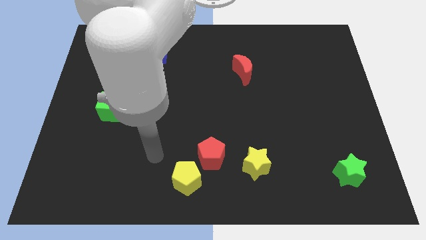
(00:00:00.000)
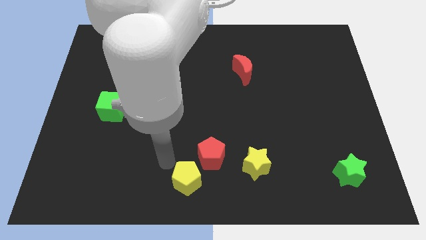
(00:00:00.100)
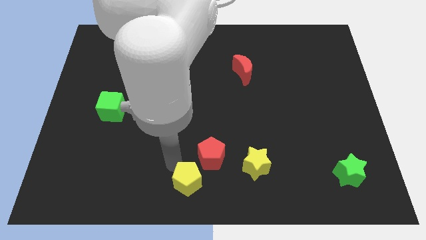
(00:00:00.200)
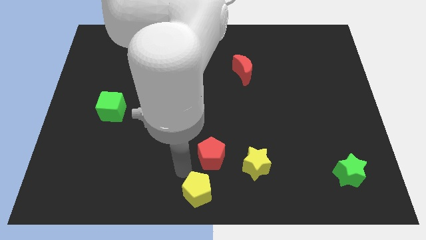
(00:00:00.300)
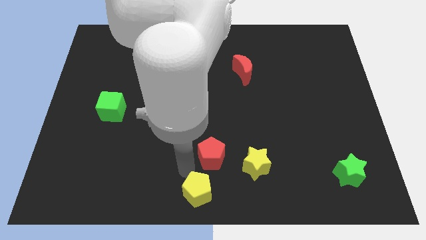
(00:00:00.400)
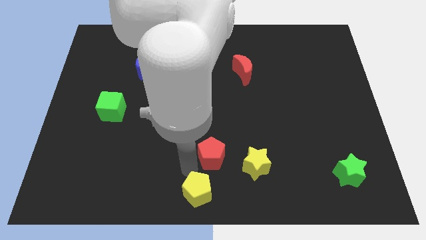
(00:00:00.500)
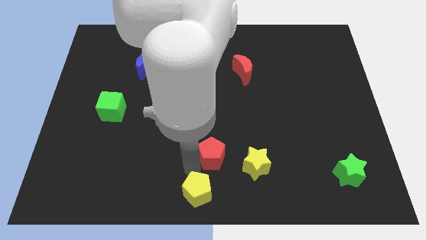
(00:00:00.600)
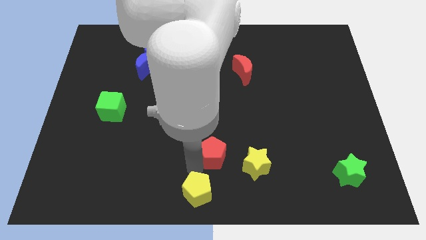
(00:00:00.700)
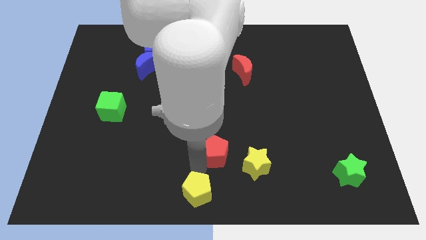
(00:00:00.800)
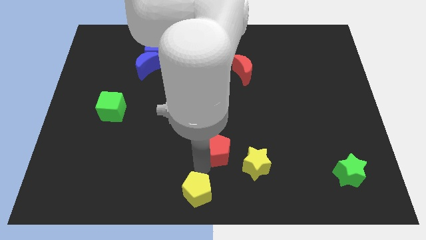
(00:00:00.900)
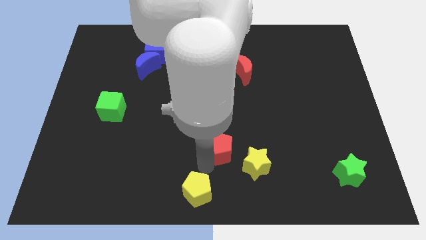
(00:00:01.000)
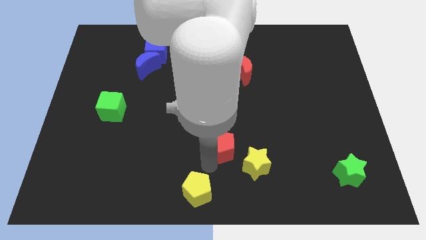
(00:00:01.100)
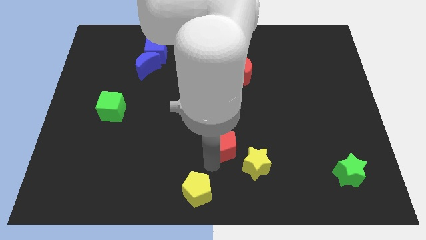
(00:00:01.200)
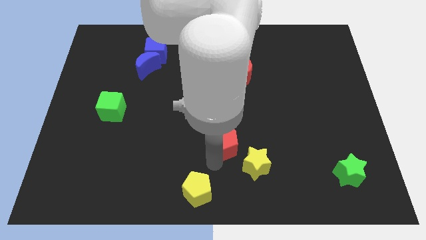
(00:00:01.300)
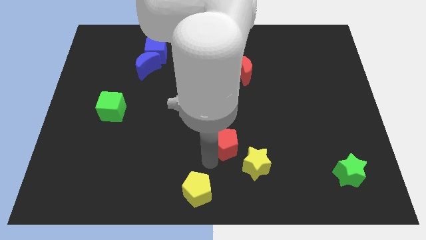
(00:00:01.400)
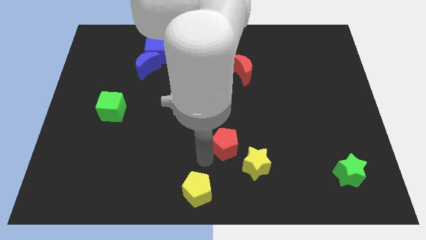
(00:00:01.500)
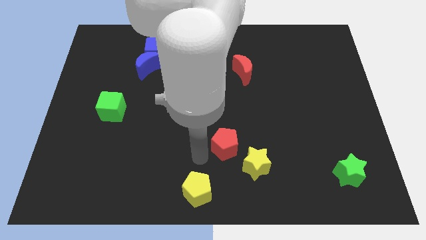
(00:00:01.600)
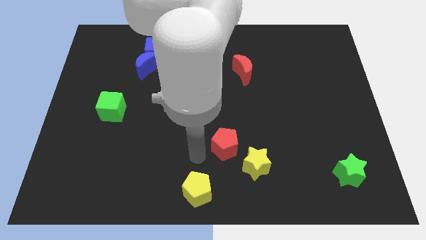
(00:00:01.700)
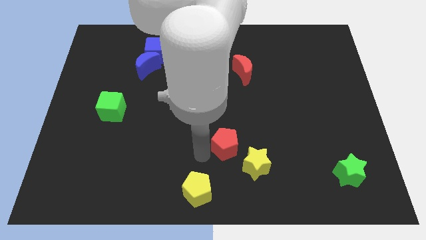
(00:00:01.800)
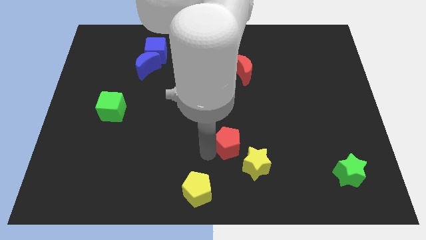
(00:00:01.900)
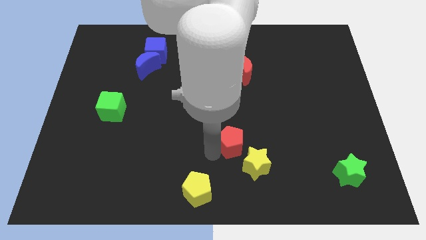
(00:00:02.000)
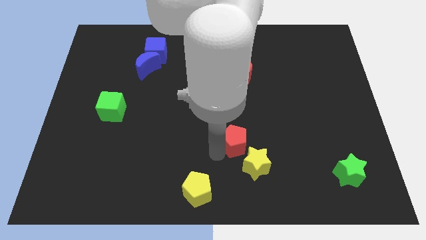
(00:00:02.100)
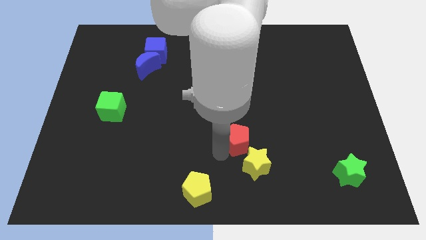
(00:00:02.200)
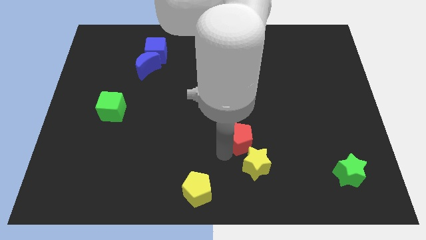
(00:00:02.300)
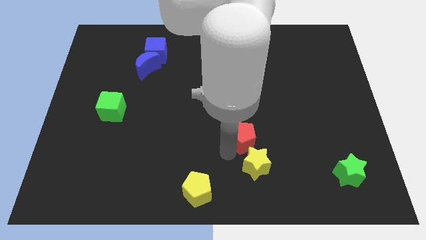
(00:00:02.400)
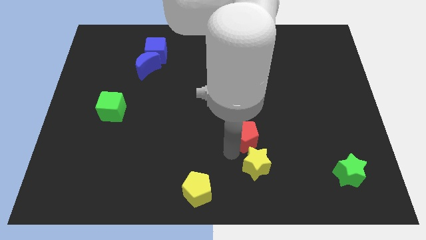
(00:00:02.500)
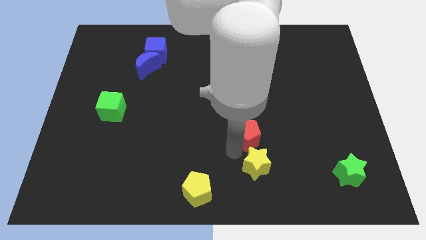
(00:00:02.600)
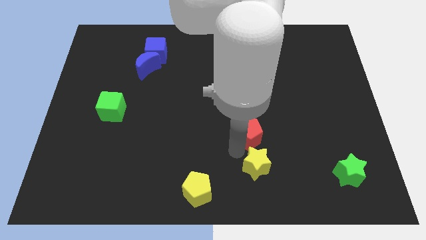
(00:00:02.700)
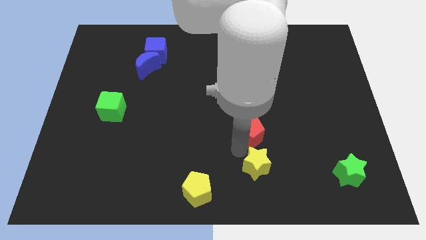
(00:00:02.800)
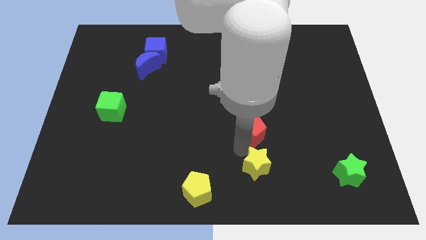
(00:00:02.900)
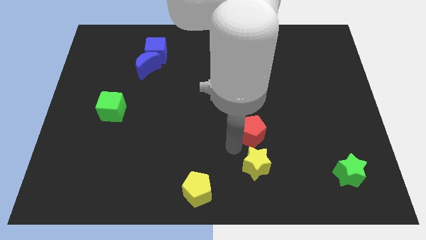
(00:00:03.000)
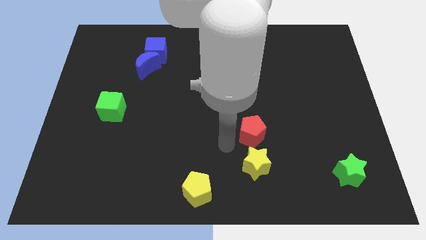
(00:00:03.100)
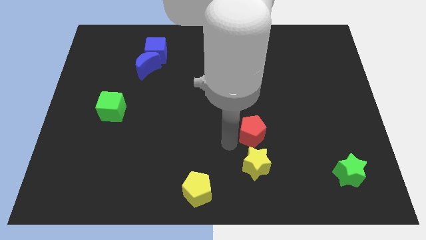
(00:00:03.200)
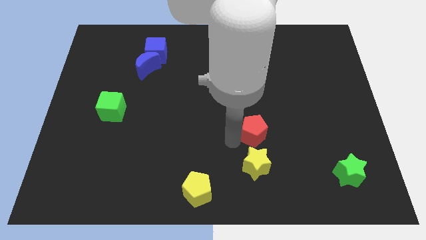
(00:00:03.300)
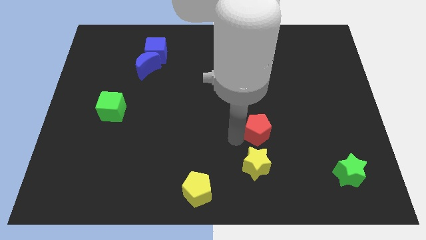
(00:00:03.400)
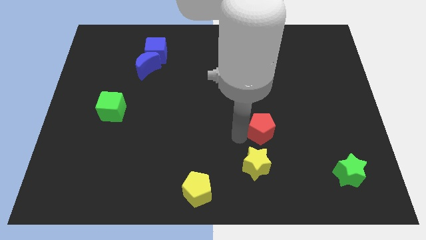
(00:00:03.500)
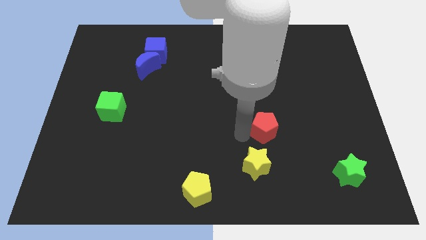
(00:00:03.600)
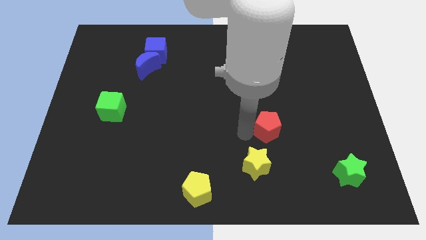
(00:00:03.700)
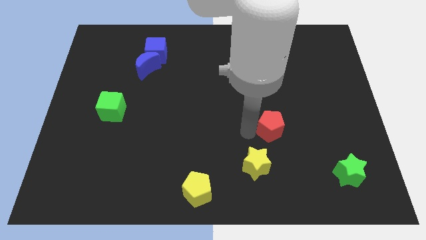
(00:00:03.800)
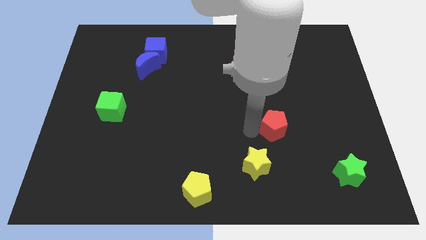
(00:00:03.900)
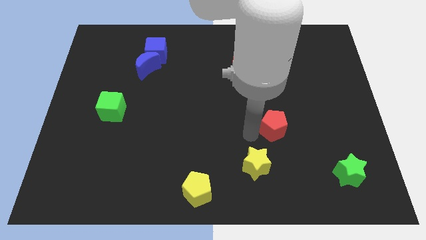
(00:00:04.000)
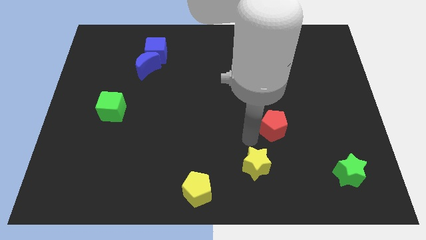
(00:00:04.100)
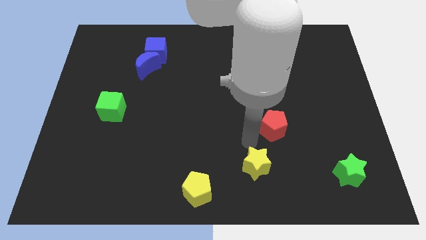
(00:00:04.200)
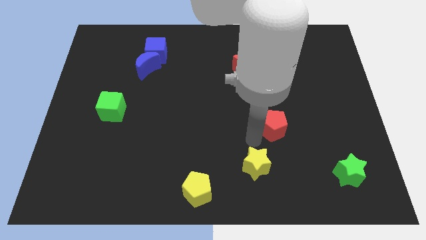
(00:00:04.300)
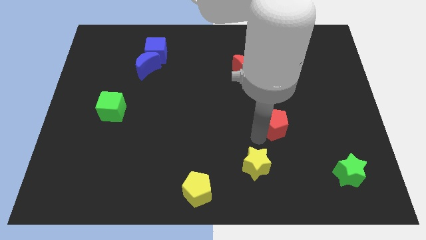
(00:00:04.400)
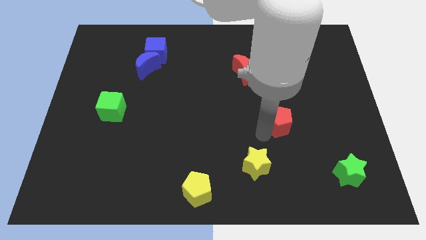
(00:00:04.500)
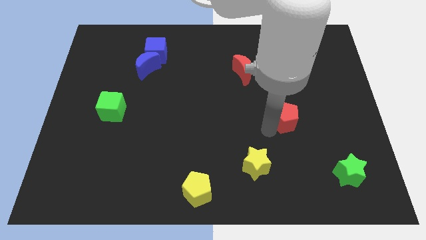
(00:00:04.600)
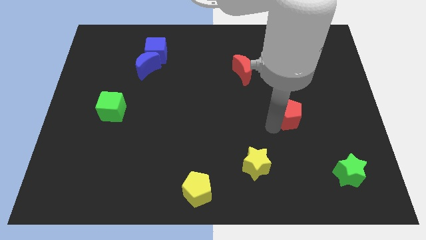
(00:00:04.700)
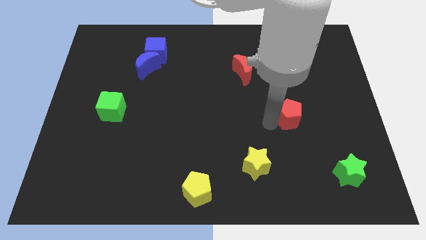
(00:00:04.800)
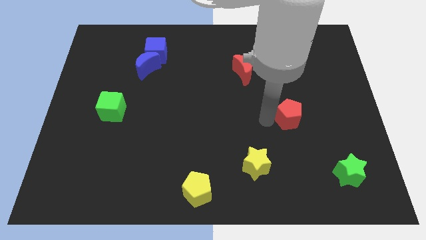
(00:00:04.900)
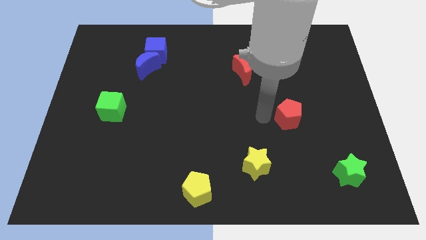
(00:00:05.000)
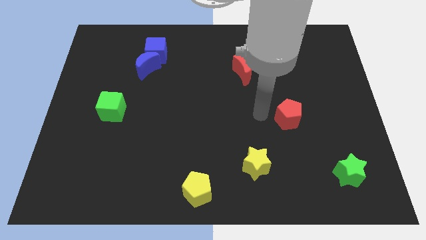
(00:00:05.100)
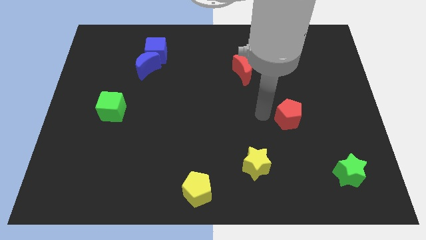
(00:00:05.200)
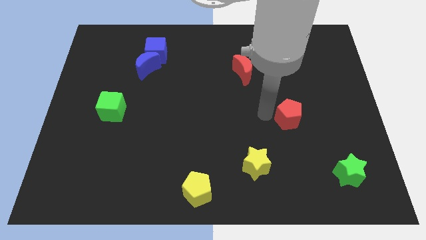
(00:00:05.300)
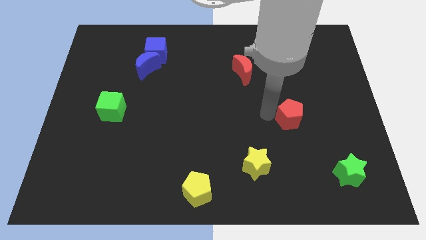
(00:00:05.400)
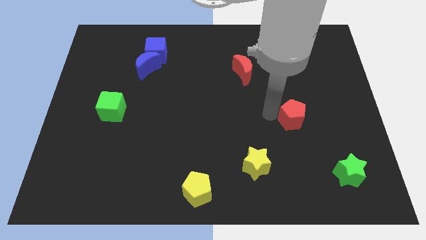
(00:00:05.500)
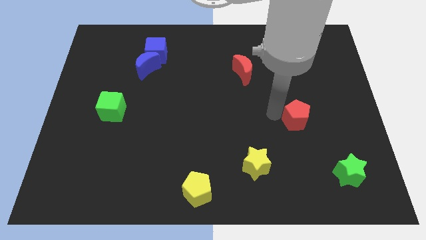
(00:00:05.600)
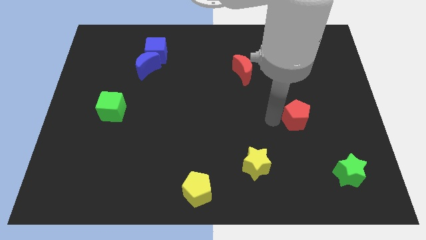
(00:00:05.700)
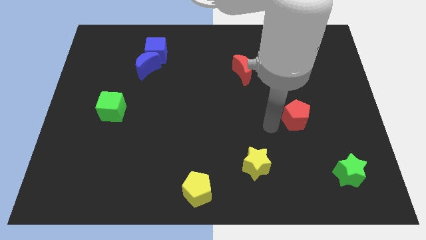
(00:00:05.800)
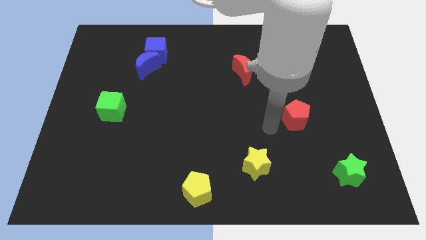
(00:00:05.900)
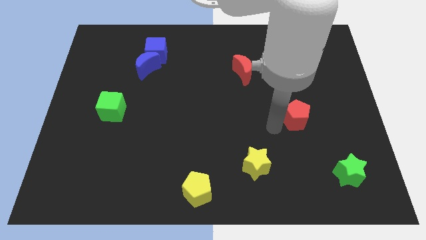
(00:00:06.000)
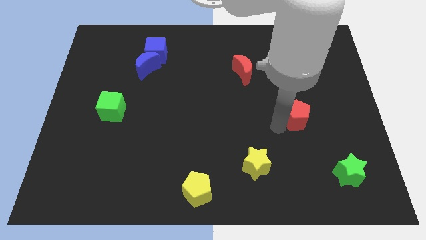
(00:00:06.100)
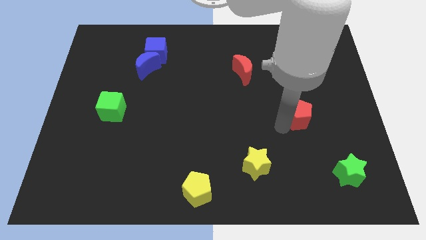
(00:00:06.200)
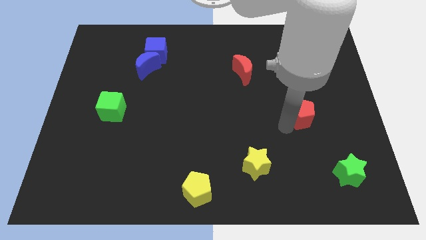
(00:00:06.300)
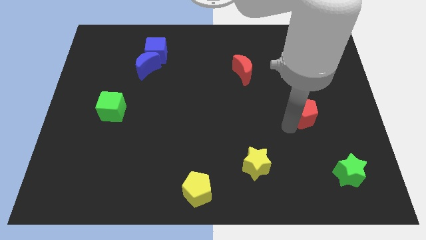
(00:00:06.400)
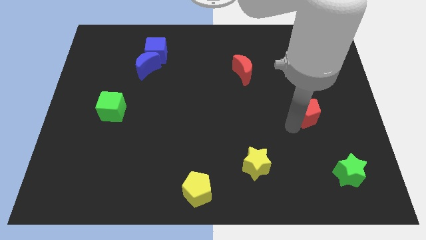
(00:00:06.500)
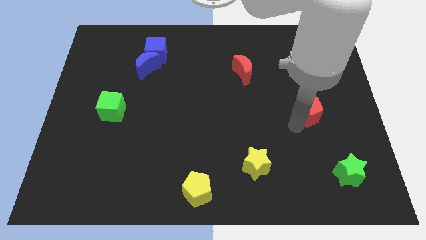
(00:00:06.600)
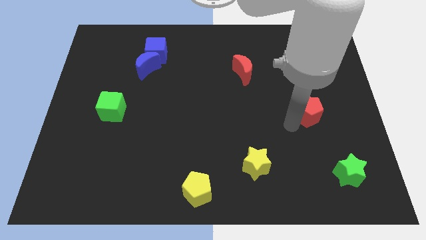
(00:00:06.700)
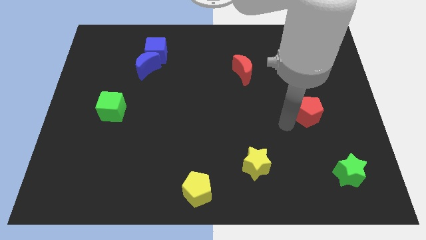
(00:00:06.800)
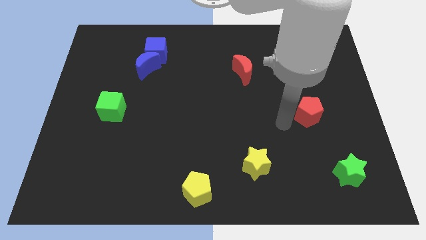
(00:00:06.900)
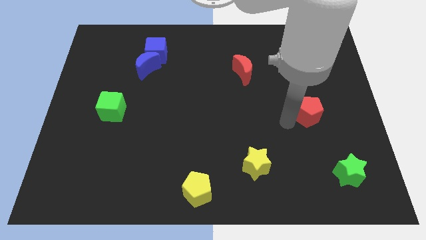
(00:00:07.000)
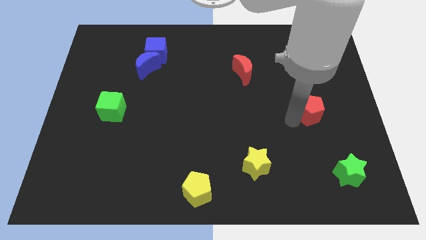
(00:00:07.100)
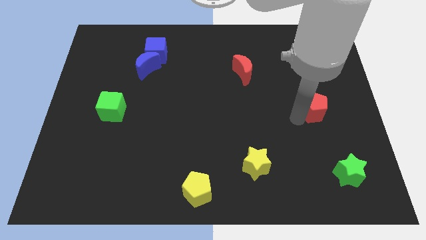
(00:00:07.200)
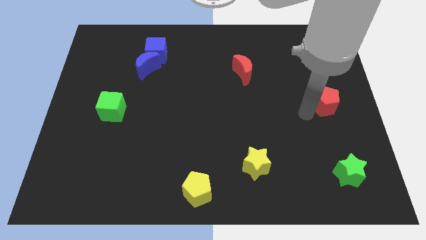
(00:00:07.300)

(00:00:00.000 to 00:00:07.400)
move the red pentagon to the right side of the board
